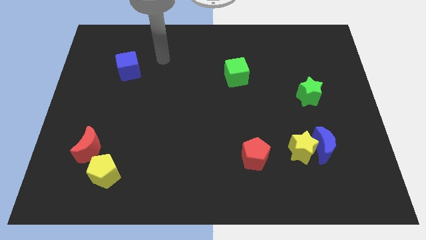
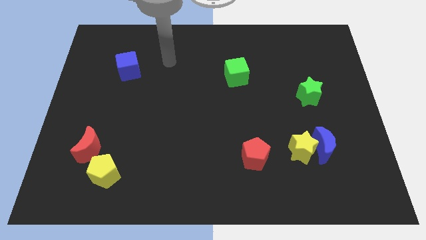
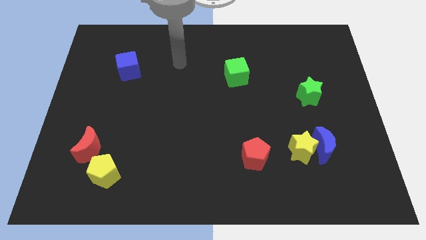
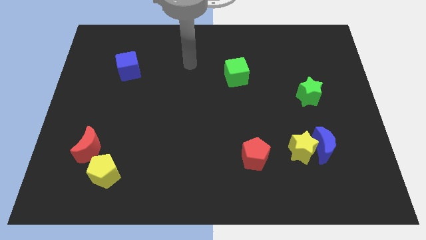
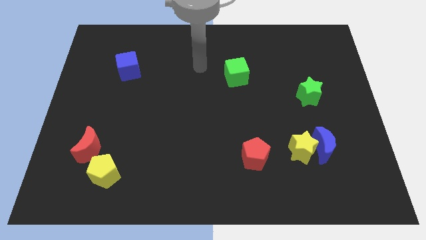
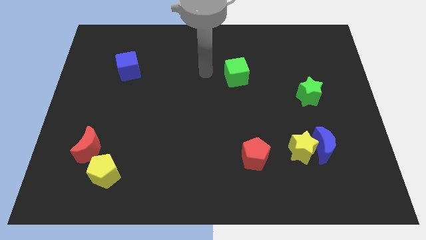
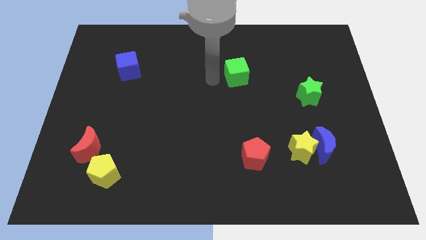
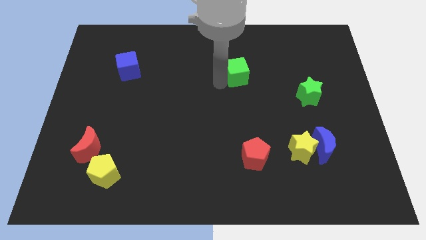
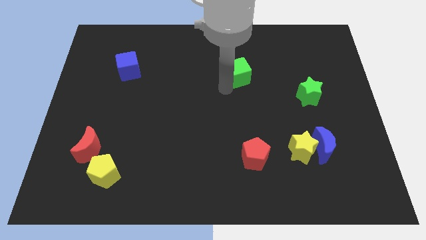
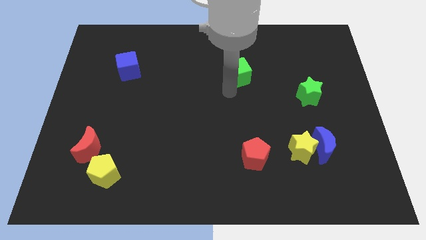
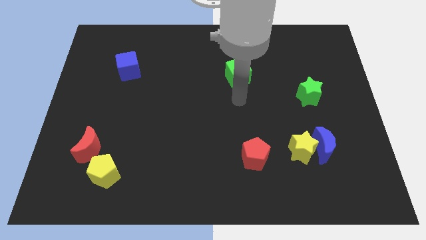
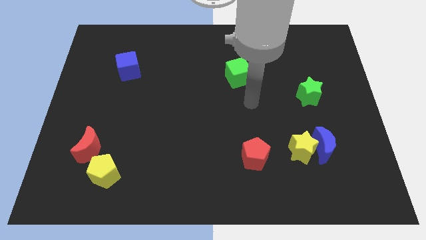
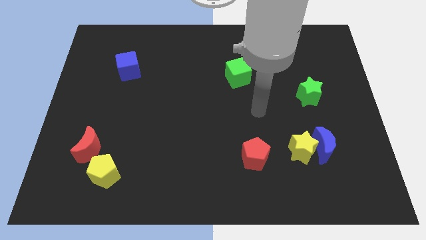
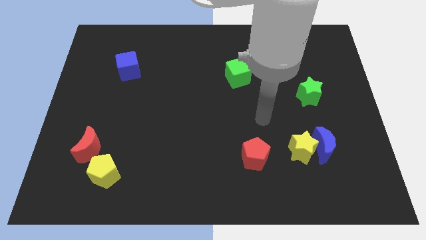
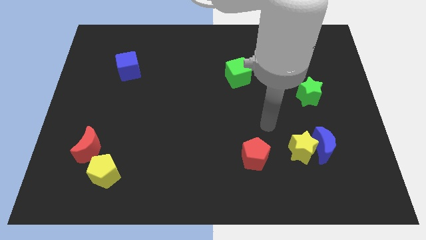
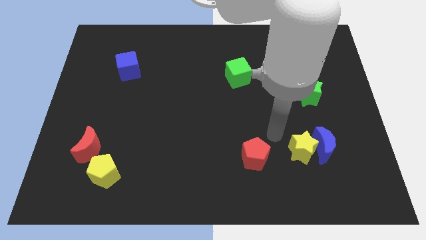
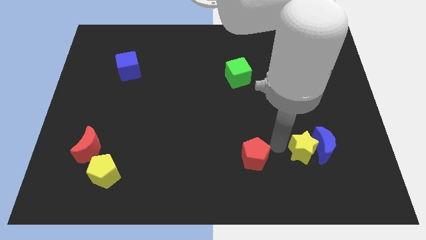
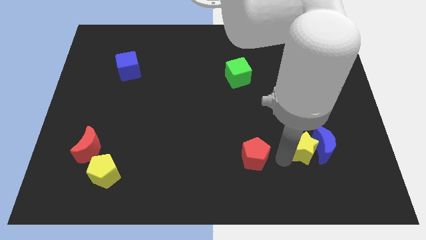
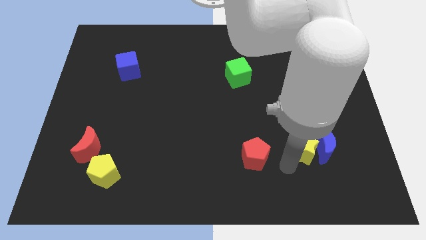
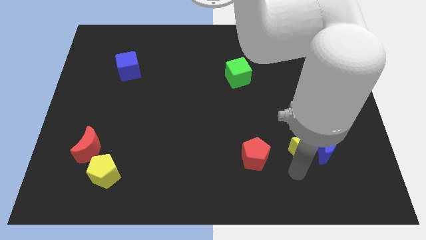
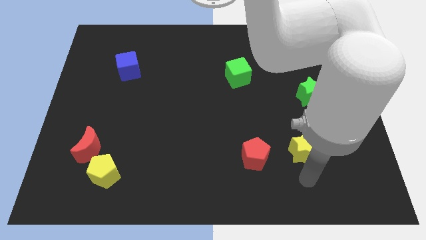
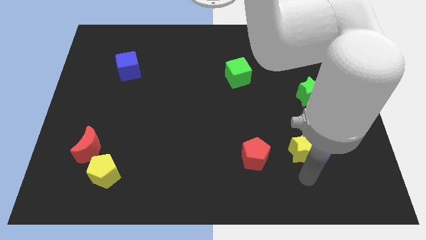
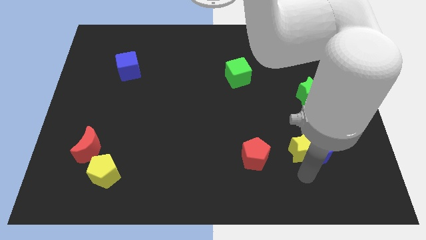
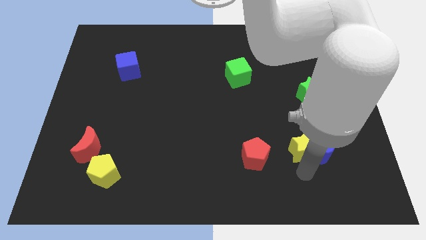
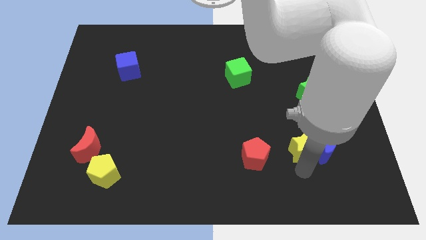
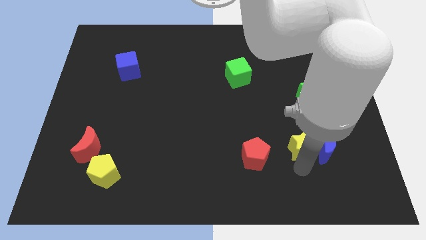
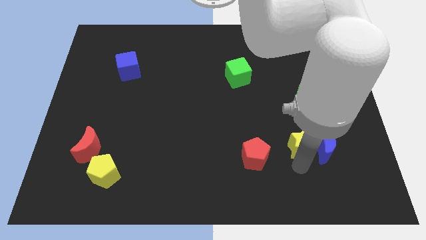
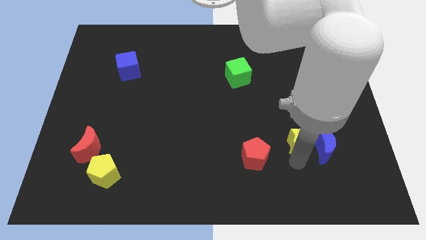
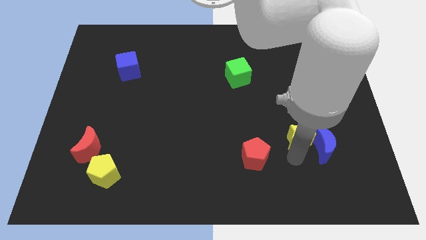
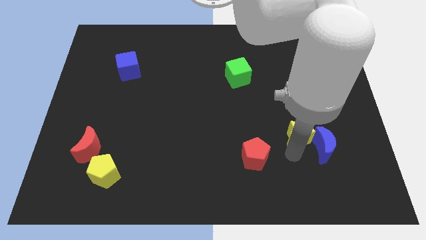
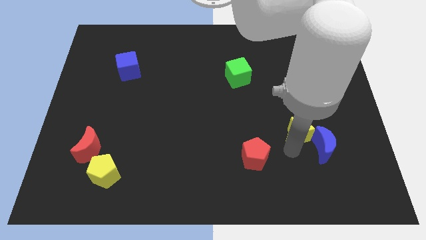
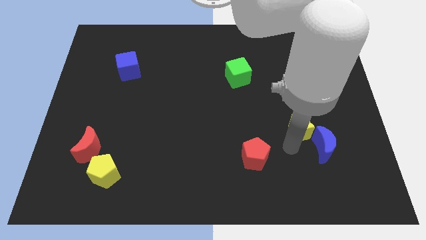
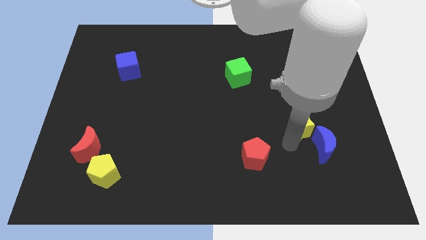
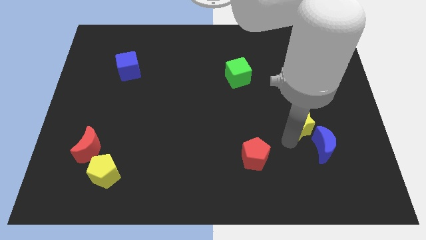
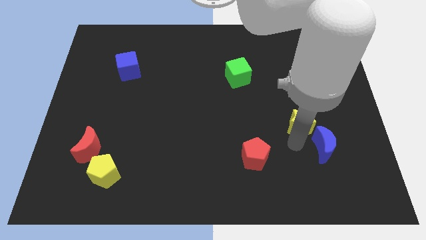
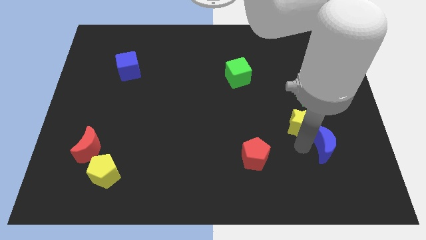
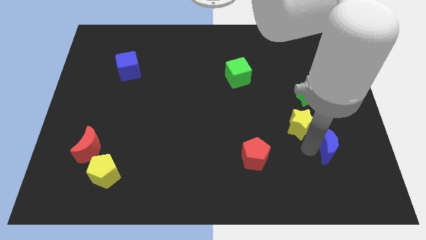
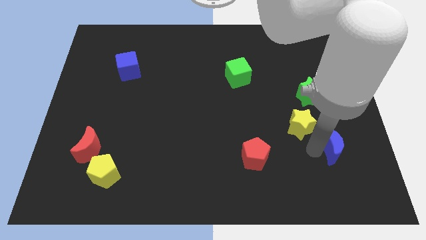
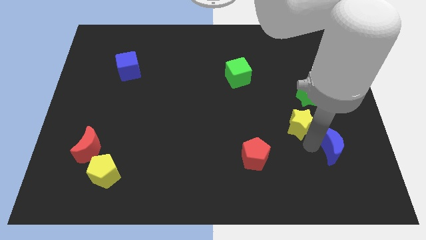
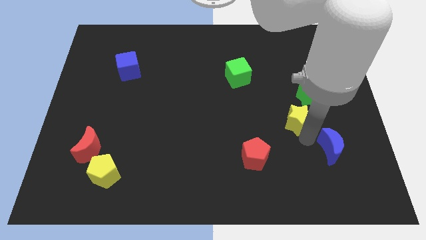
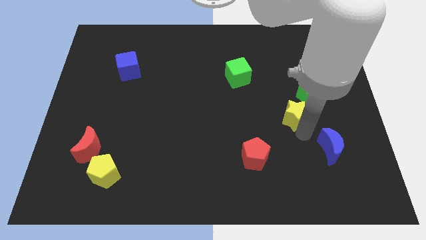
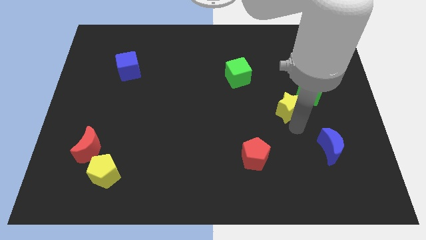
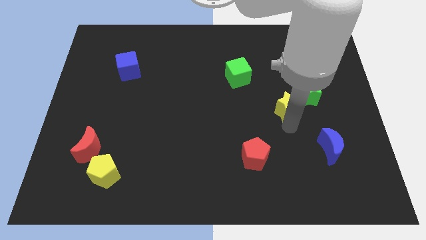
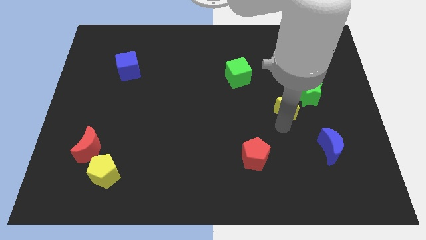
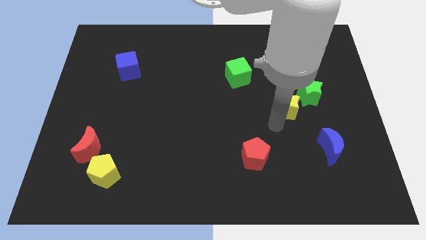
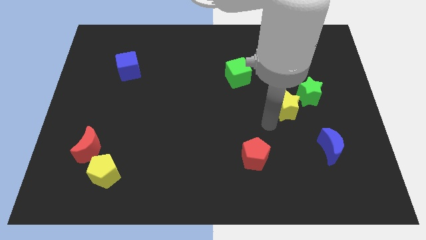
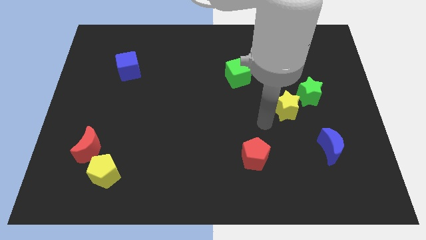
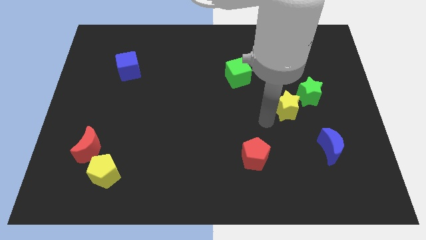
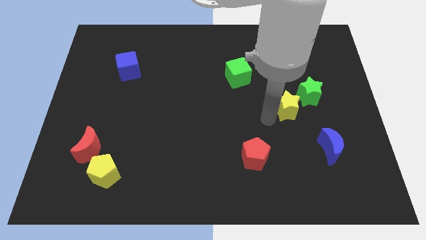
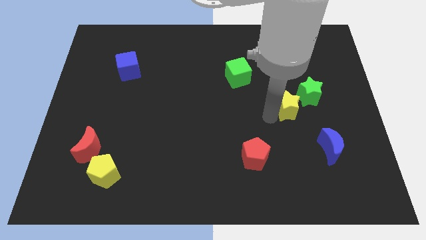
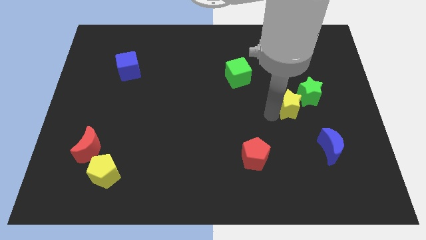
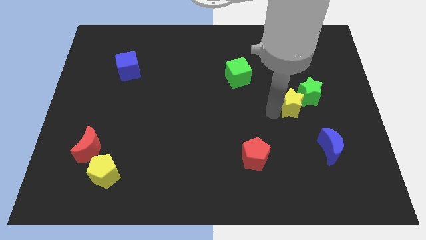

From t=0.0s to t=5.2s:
slide the yellow star to the green star

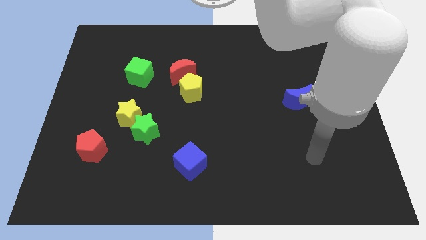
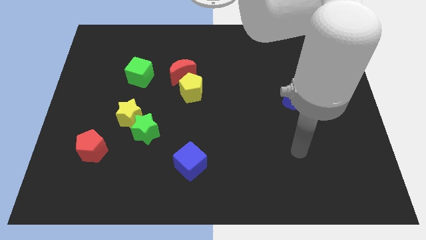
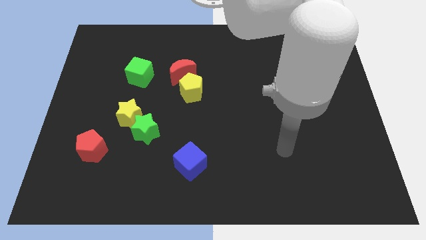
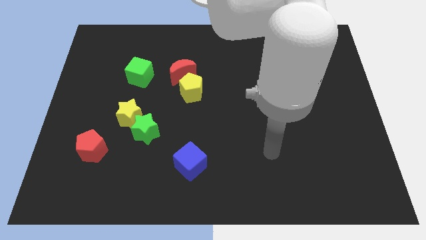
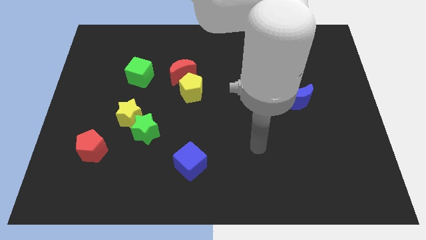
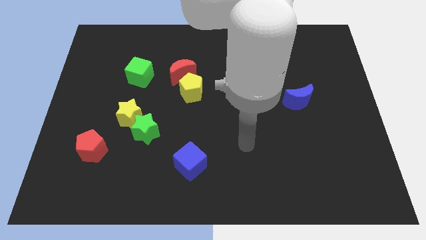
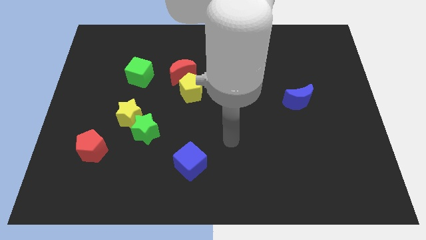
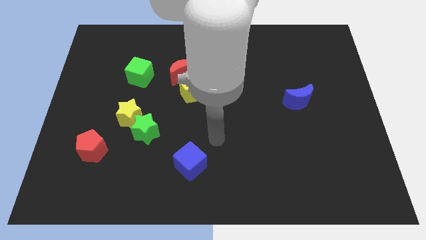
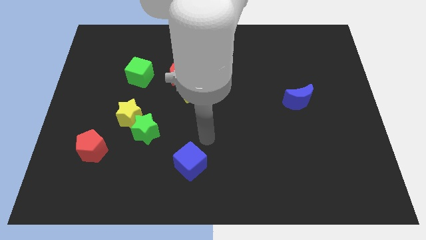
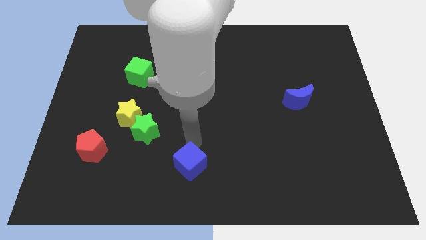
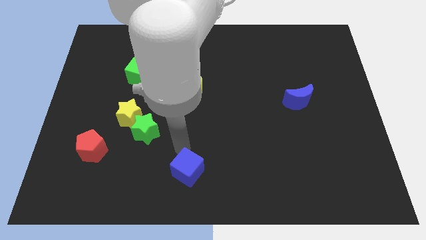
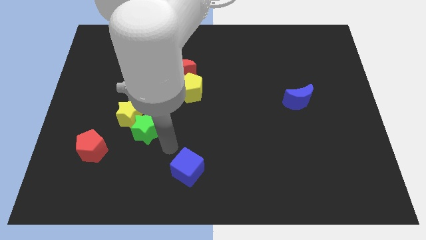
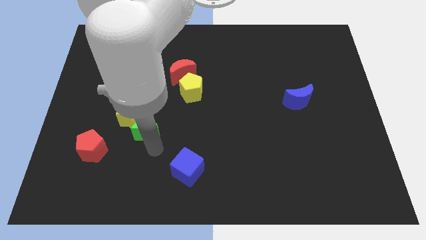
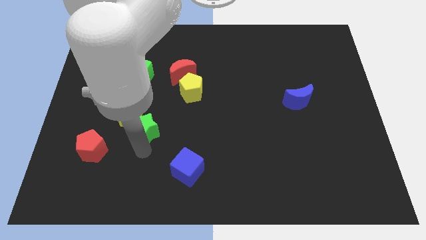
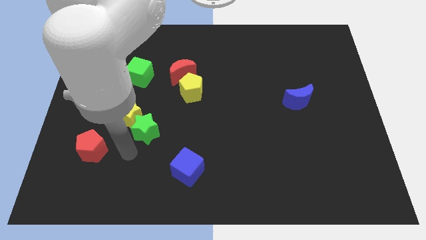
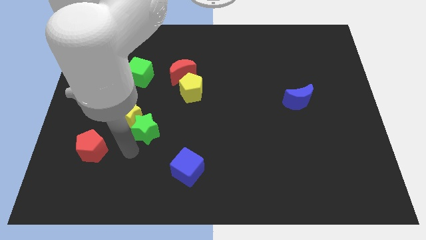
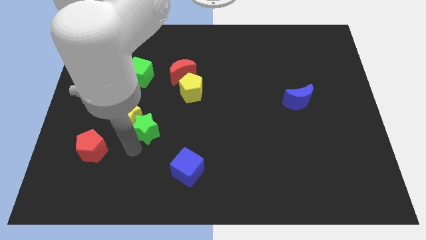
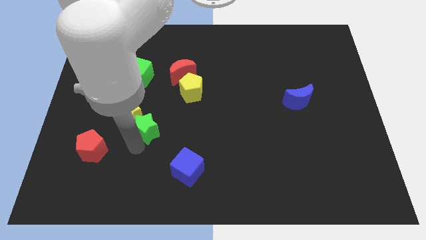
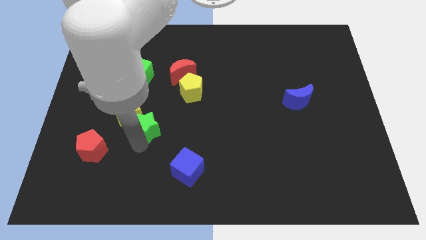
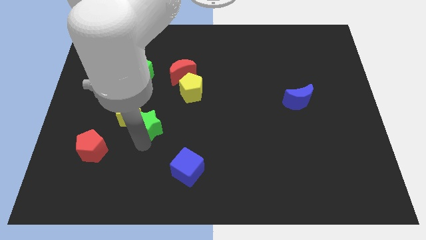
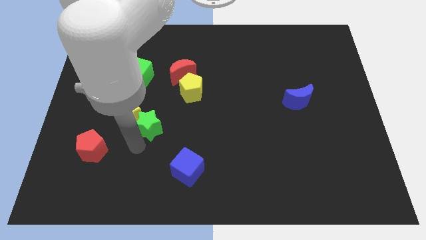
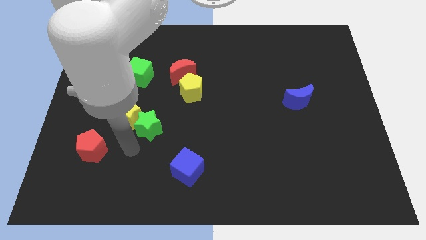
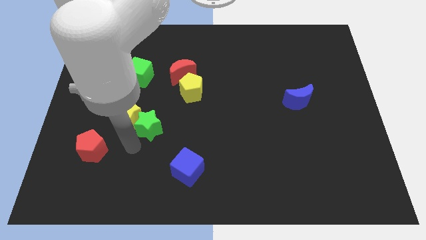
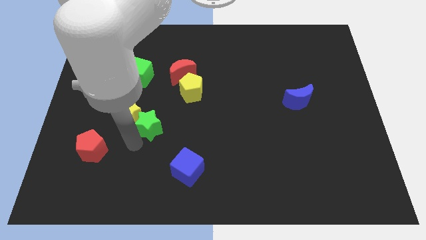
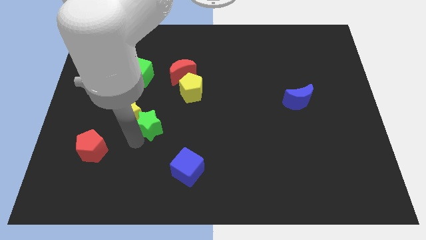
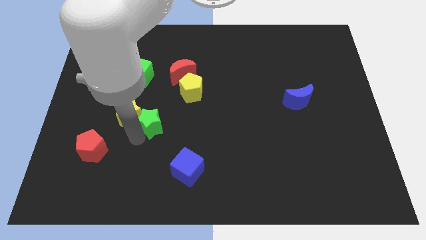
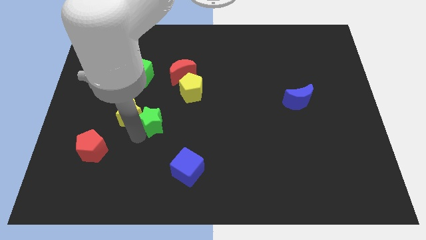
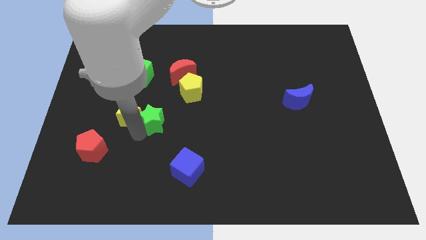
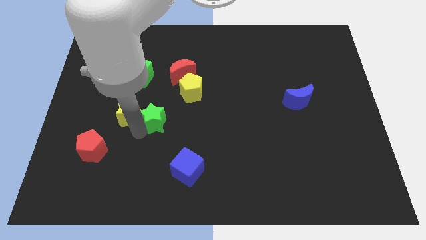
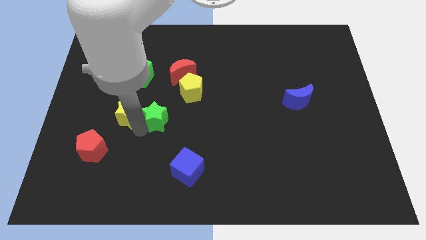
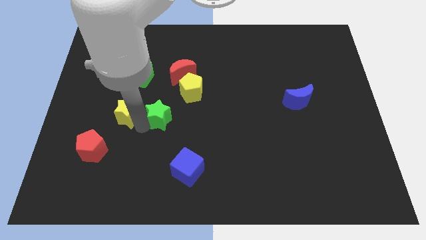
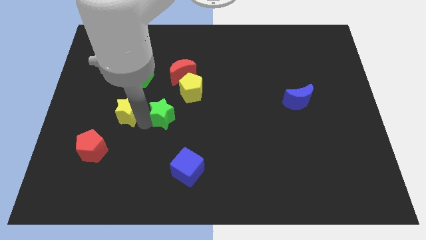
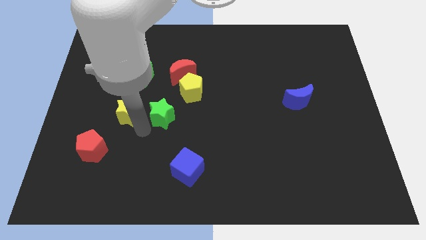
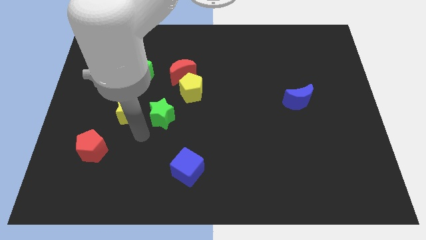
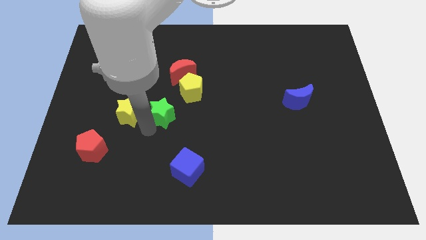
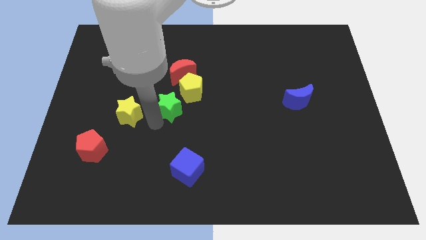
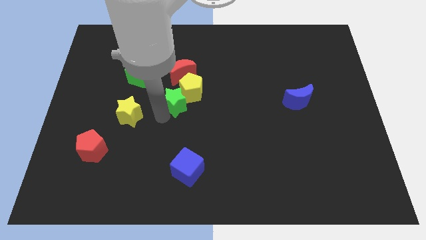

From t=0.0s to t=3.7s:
move the green star close to the yellow pentagon
